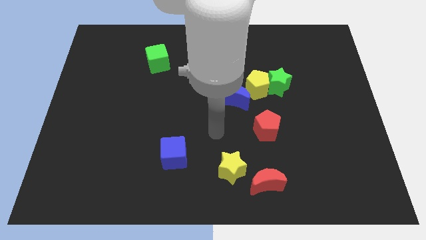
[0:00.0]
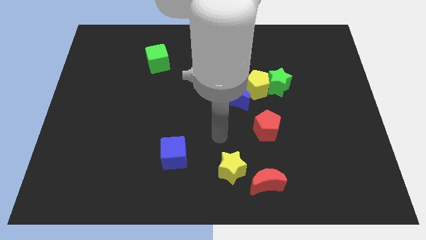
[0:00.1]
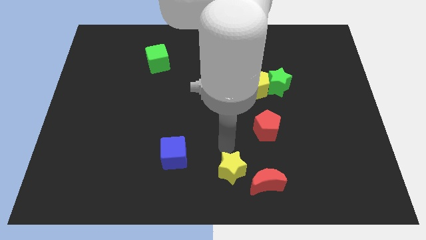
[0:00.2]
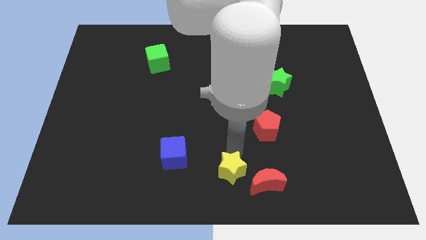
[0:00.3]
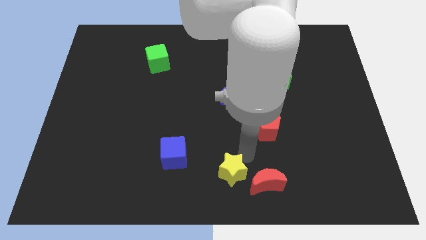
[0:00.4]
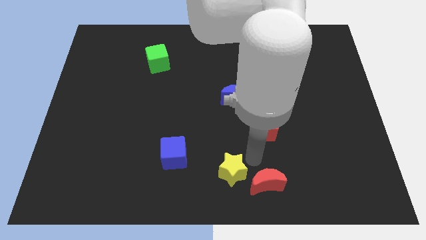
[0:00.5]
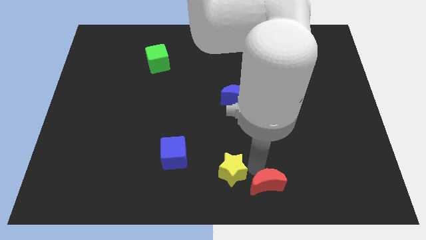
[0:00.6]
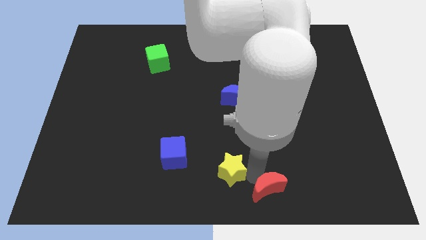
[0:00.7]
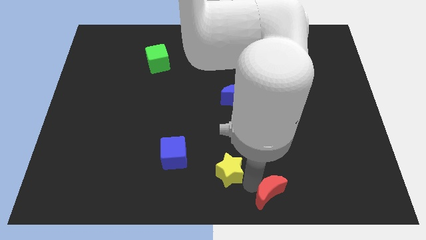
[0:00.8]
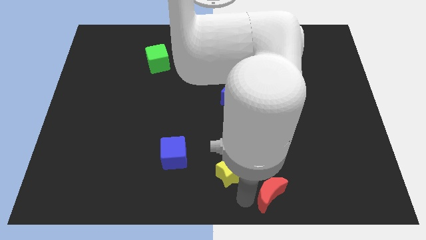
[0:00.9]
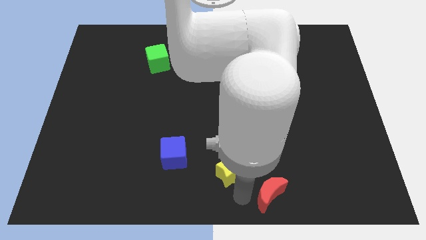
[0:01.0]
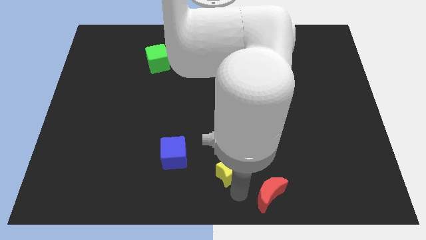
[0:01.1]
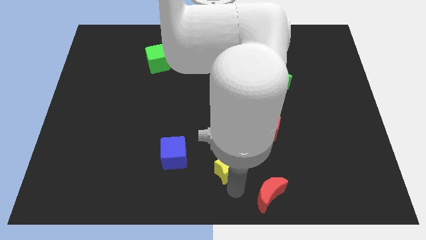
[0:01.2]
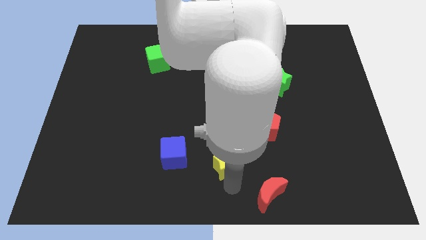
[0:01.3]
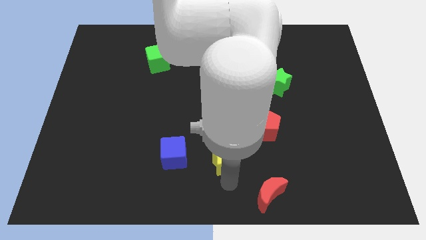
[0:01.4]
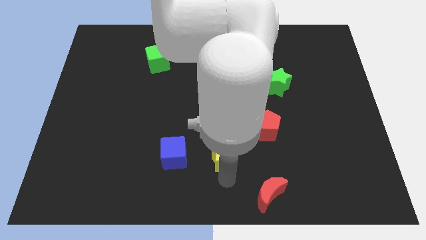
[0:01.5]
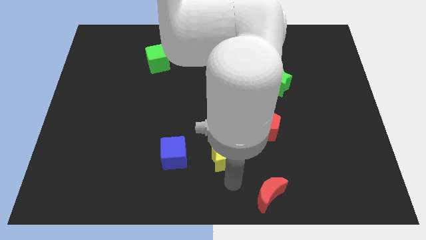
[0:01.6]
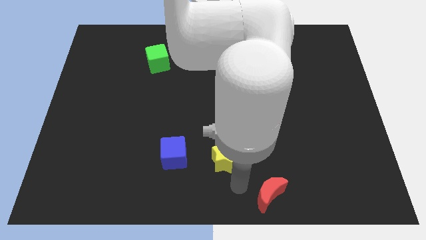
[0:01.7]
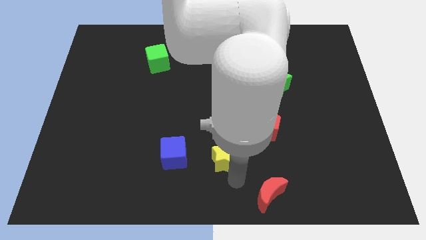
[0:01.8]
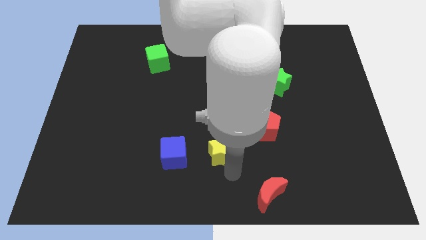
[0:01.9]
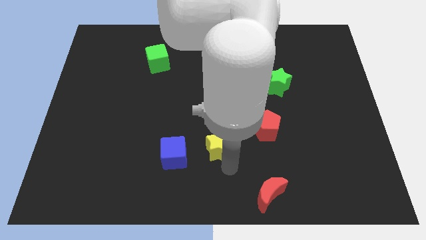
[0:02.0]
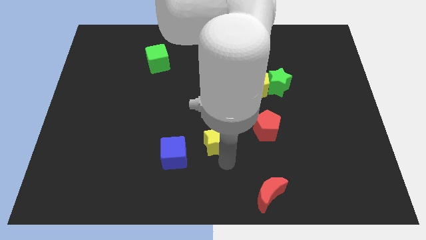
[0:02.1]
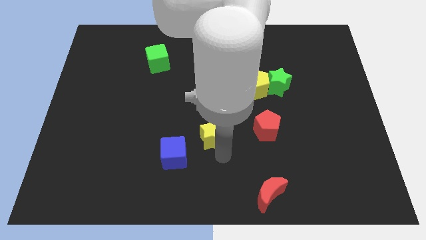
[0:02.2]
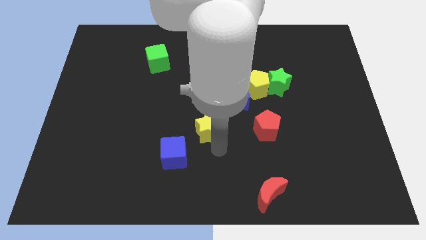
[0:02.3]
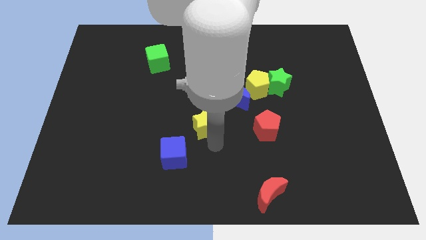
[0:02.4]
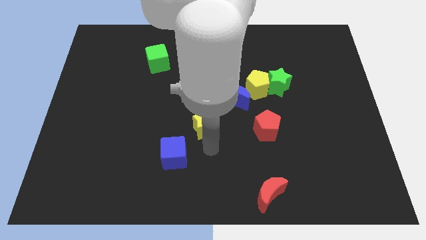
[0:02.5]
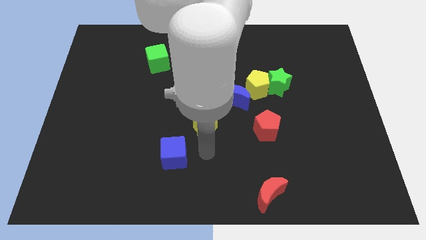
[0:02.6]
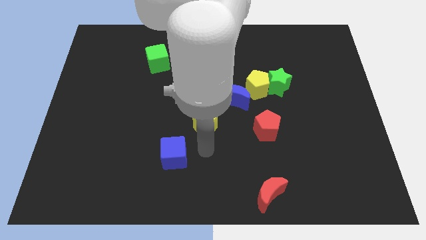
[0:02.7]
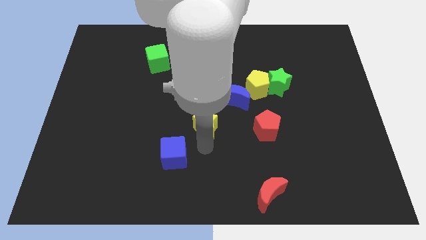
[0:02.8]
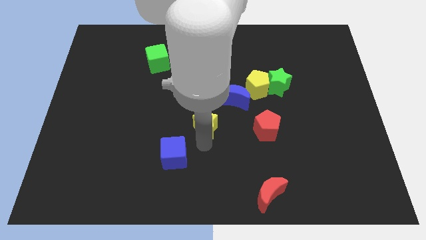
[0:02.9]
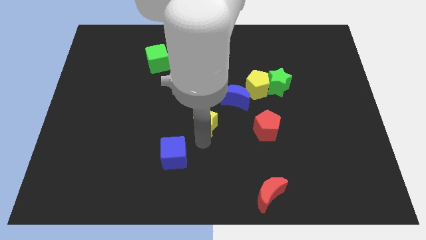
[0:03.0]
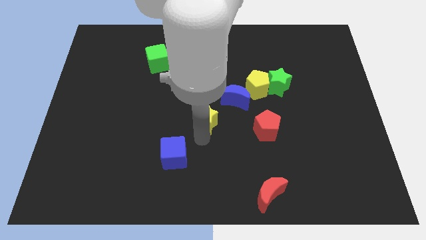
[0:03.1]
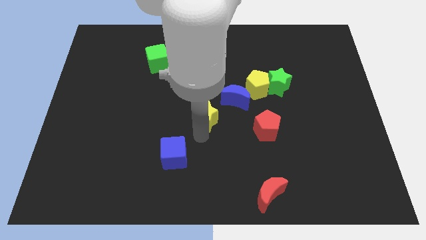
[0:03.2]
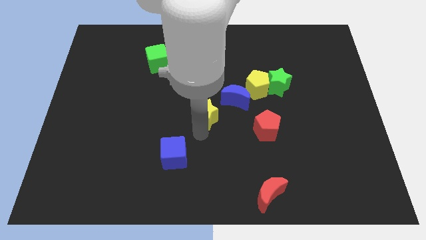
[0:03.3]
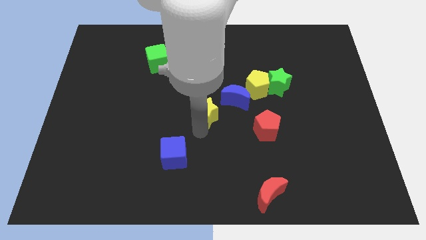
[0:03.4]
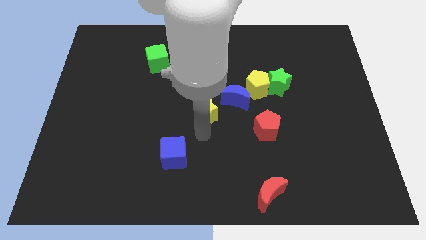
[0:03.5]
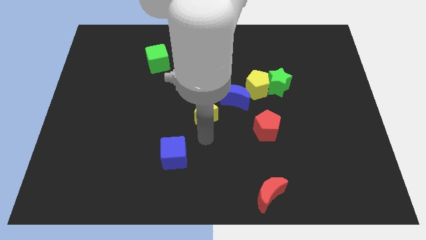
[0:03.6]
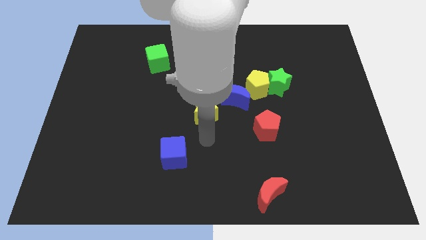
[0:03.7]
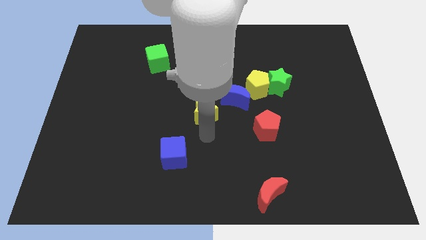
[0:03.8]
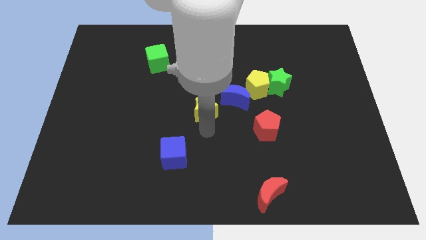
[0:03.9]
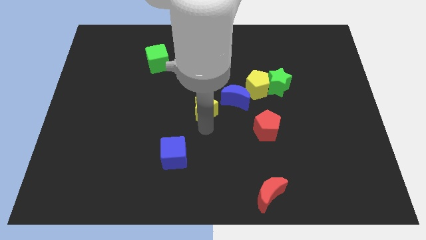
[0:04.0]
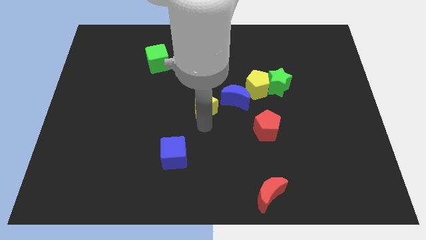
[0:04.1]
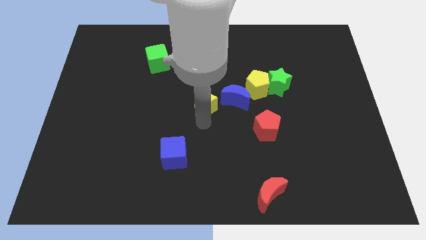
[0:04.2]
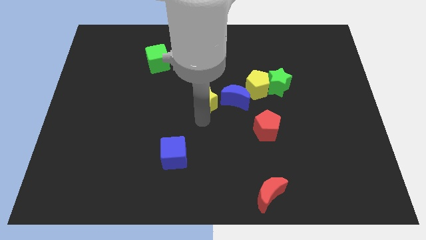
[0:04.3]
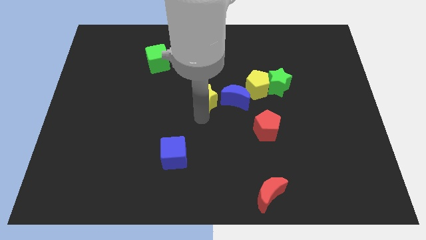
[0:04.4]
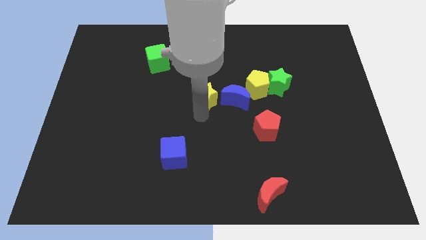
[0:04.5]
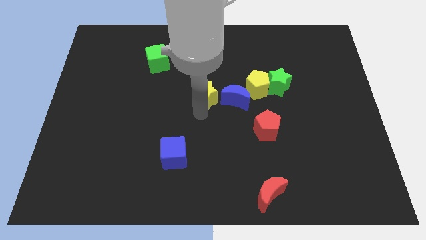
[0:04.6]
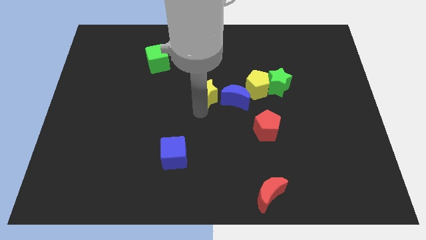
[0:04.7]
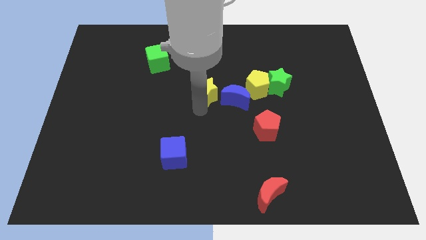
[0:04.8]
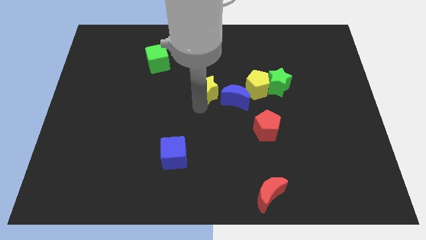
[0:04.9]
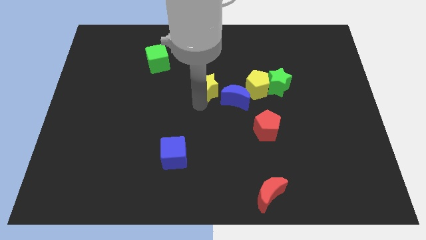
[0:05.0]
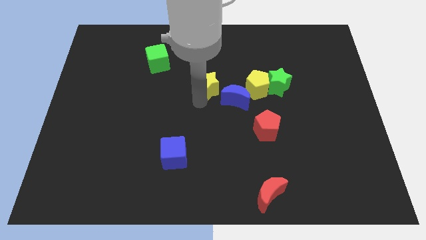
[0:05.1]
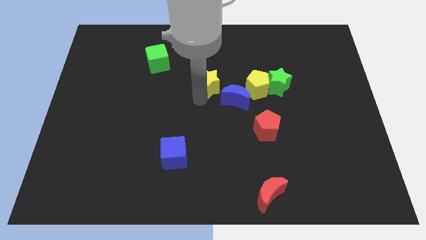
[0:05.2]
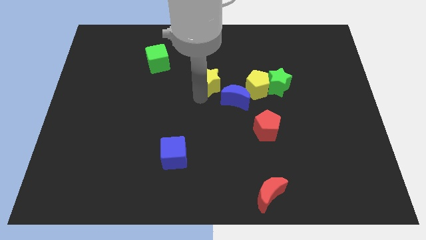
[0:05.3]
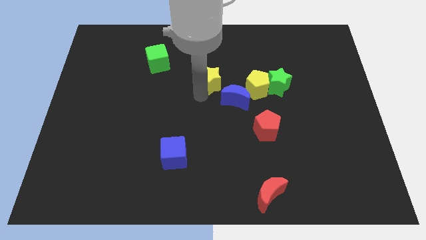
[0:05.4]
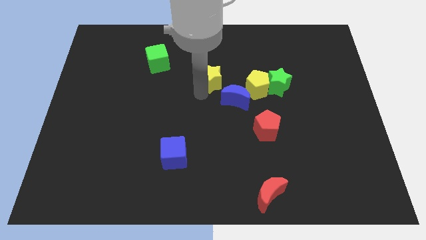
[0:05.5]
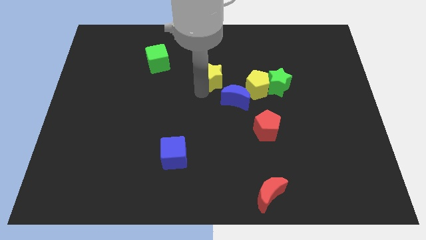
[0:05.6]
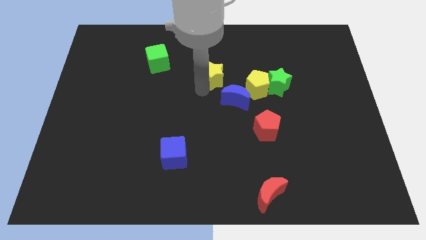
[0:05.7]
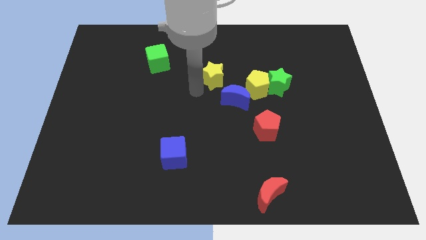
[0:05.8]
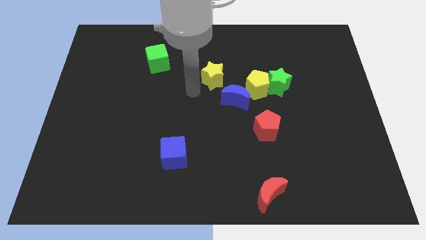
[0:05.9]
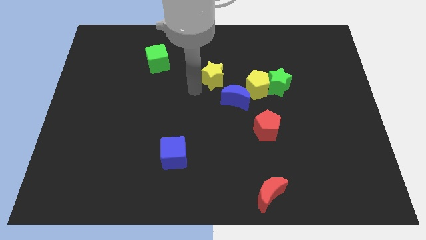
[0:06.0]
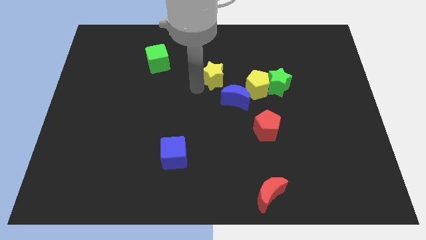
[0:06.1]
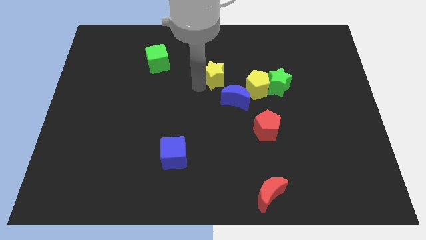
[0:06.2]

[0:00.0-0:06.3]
put the yellow star to the top side of the blue moon

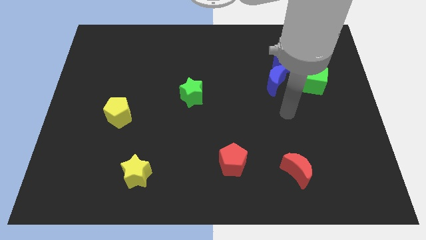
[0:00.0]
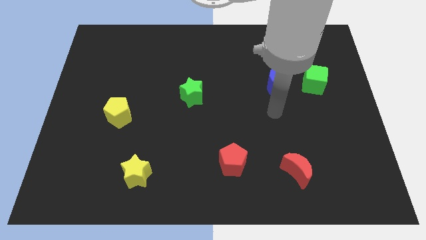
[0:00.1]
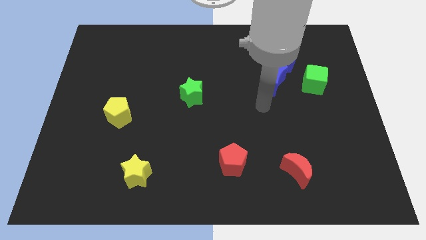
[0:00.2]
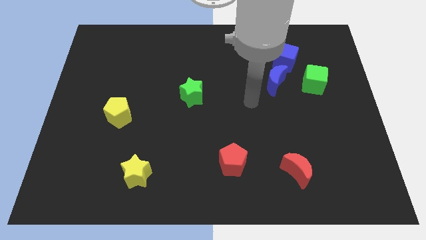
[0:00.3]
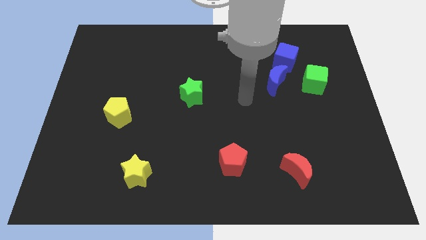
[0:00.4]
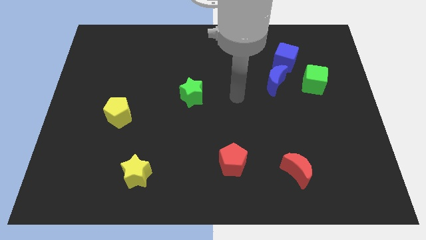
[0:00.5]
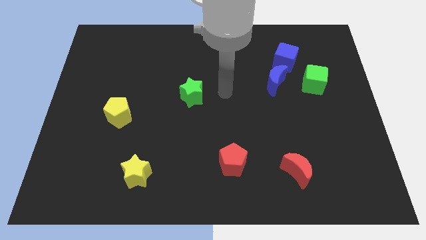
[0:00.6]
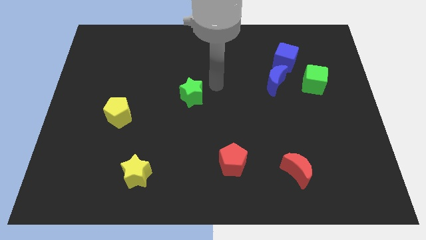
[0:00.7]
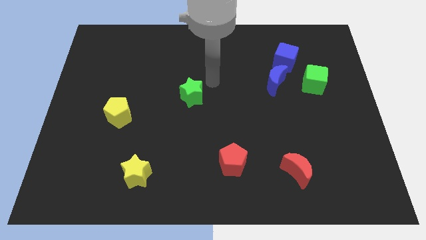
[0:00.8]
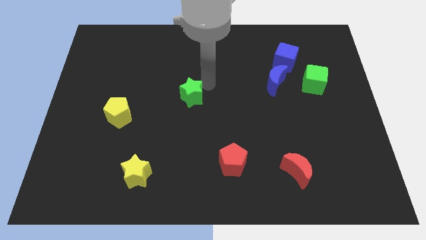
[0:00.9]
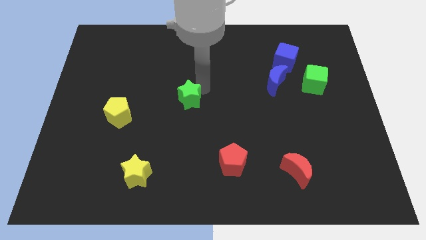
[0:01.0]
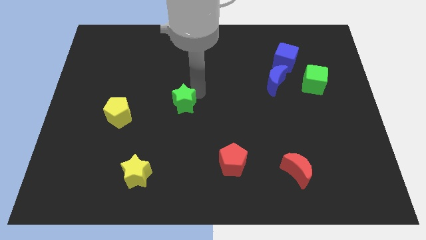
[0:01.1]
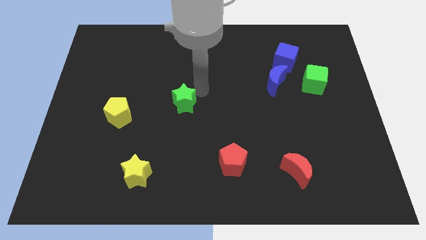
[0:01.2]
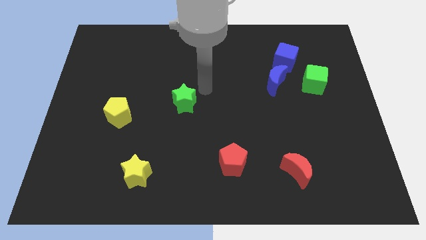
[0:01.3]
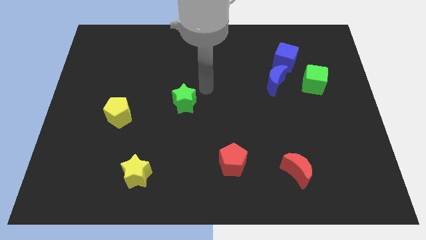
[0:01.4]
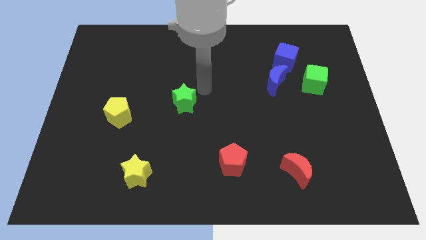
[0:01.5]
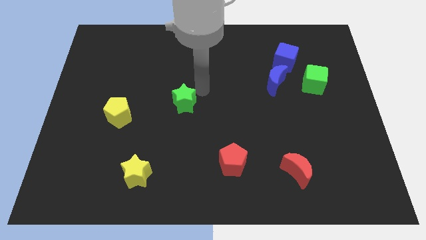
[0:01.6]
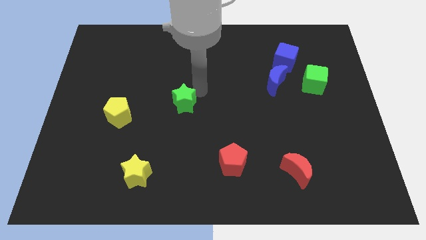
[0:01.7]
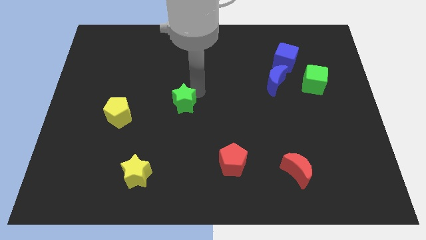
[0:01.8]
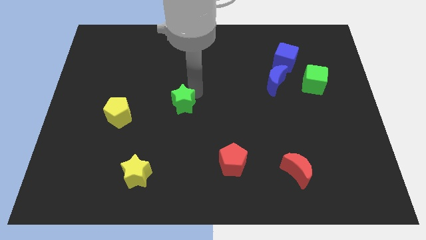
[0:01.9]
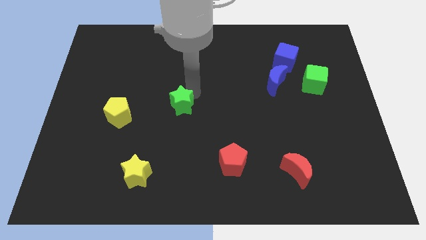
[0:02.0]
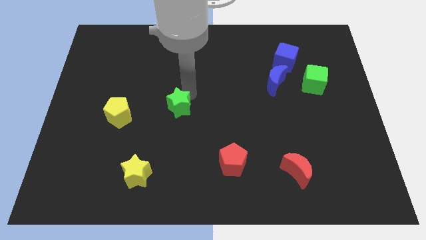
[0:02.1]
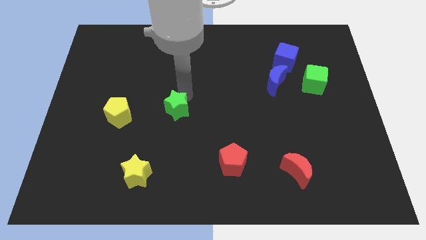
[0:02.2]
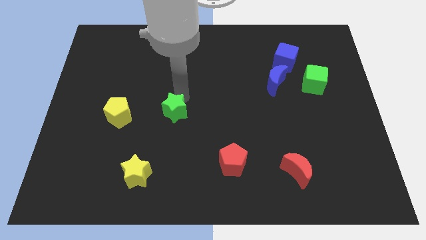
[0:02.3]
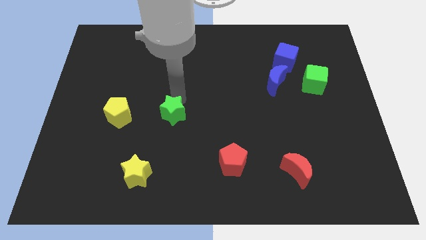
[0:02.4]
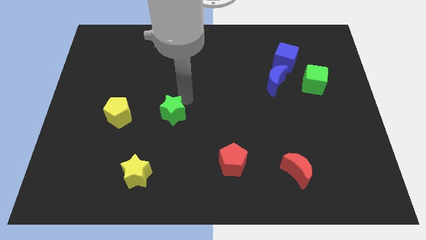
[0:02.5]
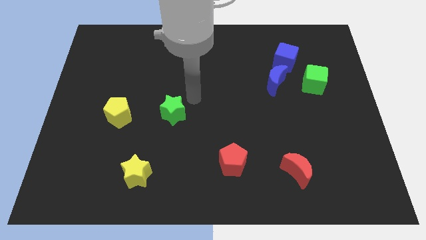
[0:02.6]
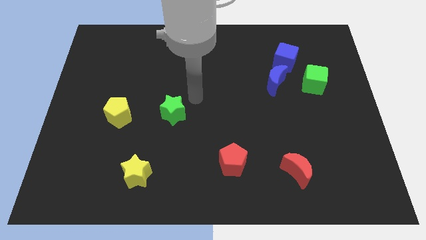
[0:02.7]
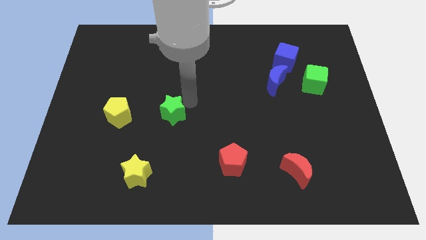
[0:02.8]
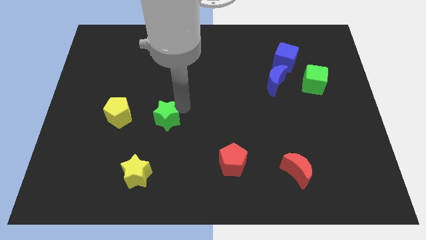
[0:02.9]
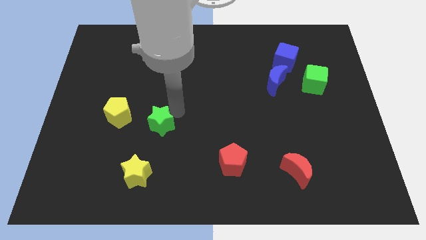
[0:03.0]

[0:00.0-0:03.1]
push the green star to the top of the yellow star
